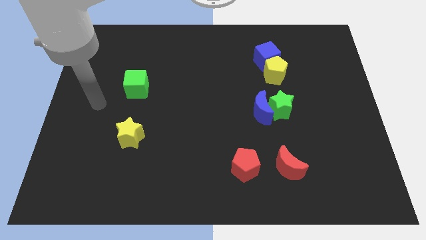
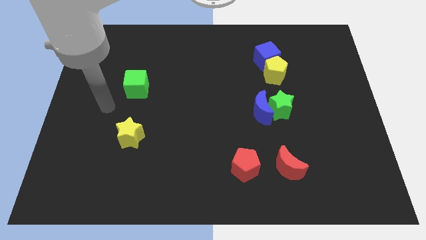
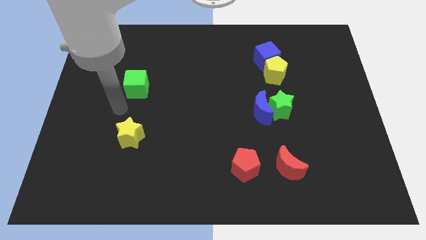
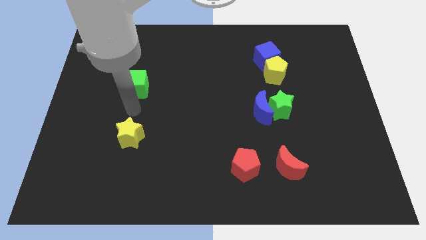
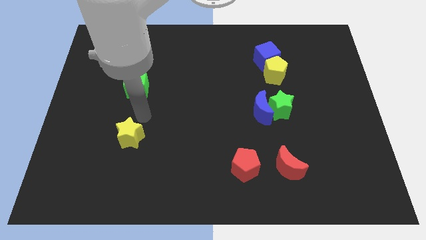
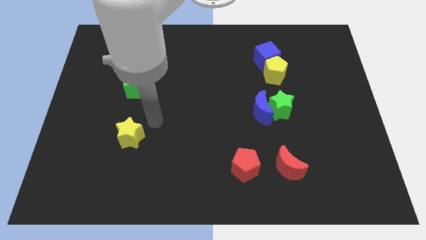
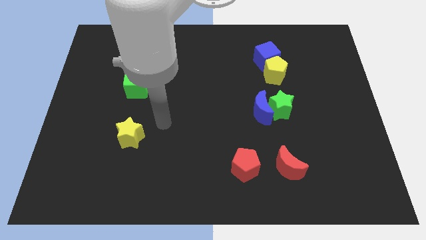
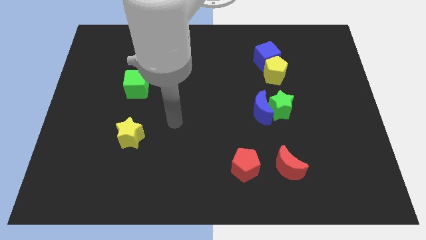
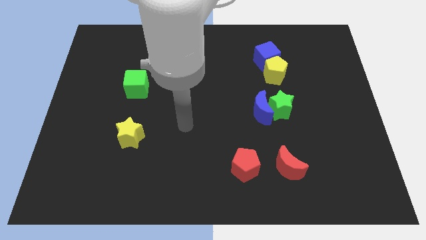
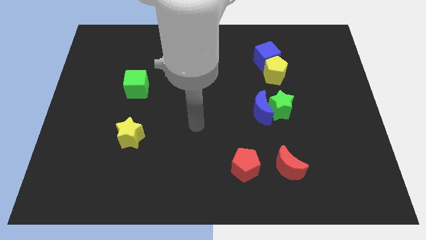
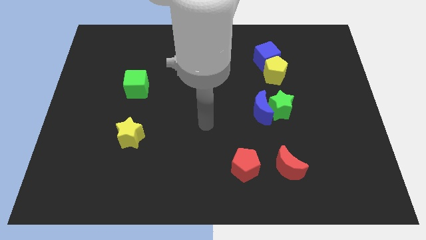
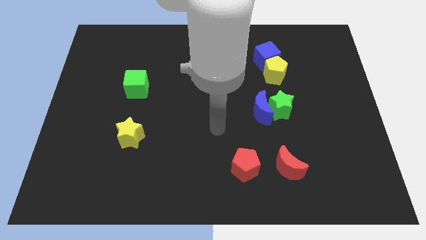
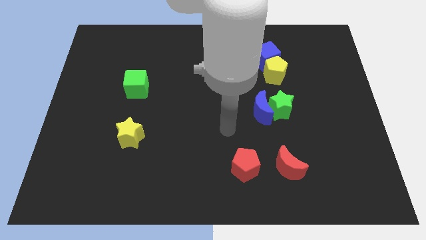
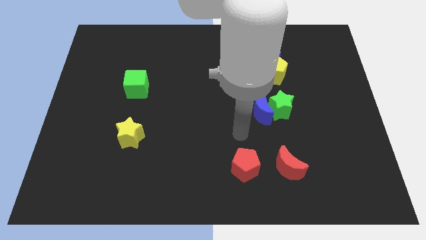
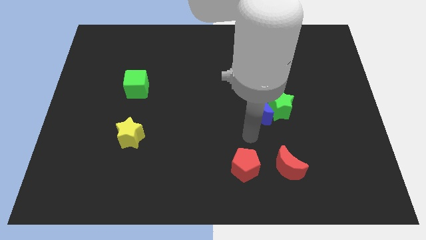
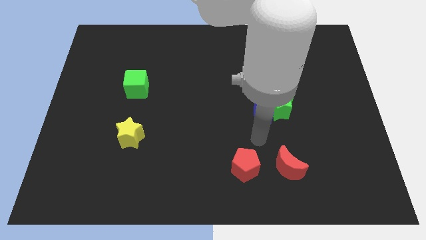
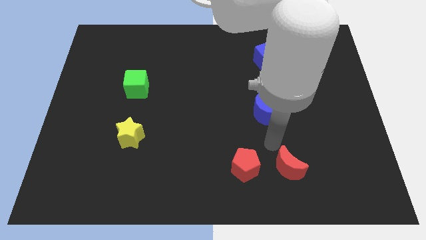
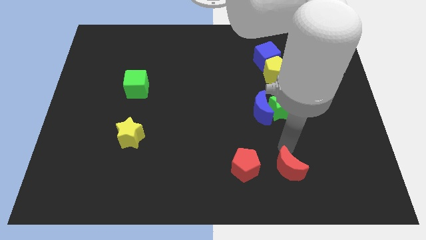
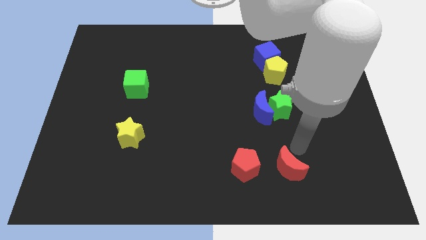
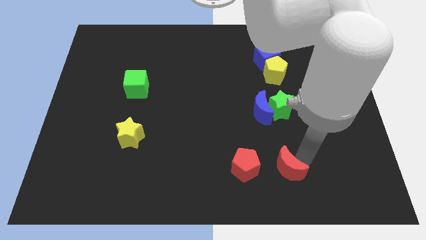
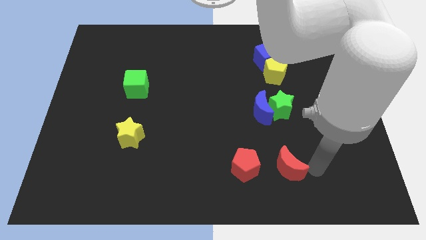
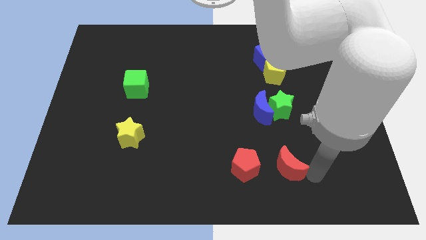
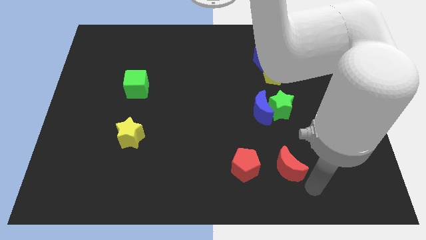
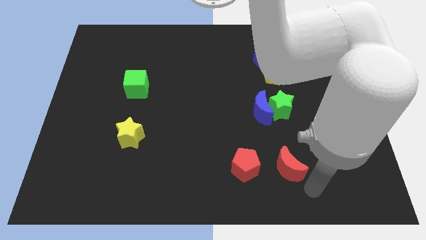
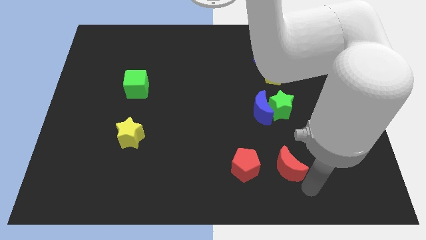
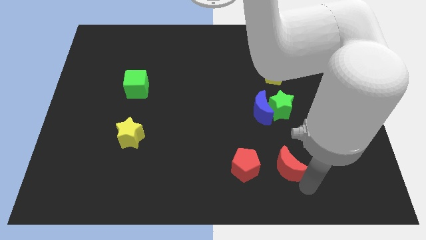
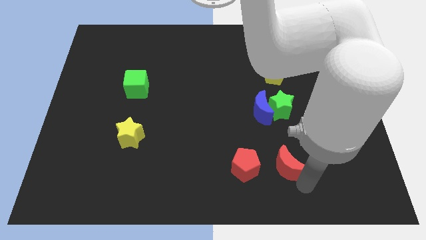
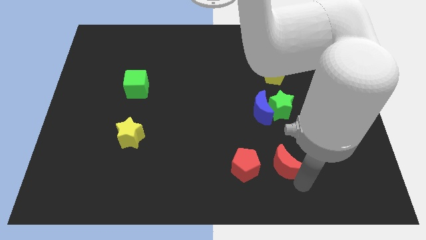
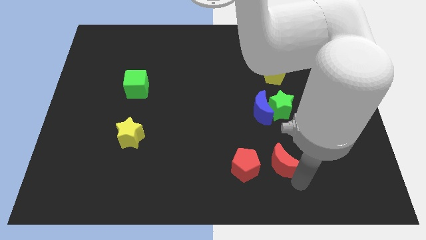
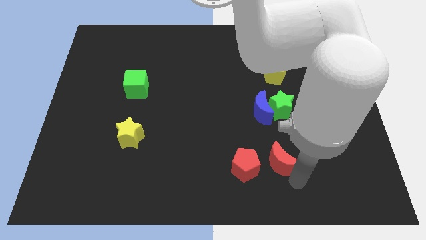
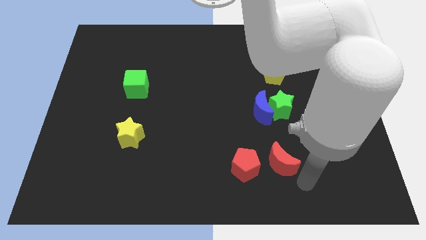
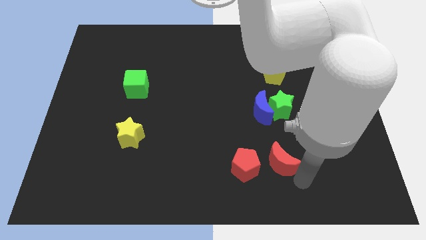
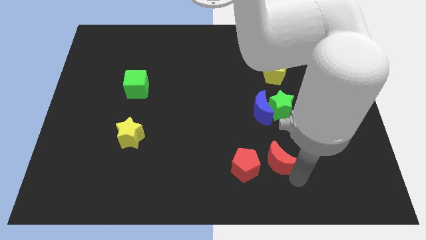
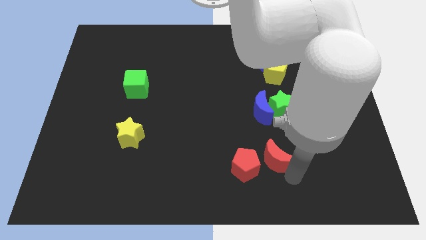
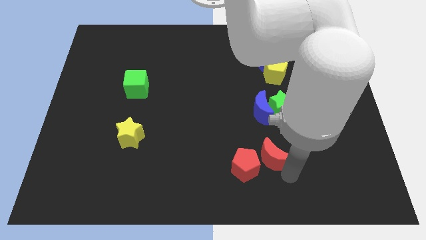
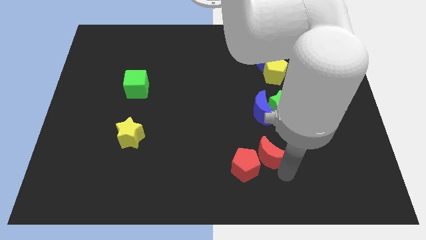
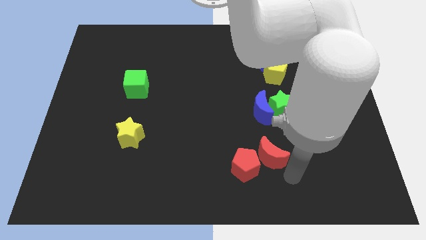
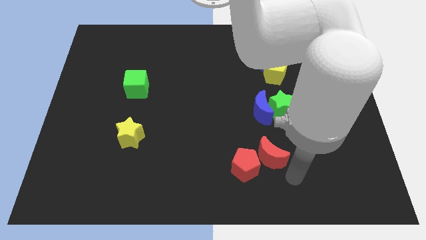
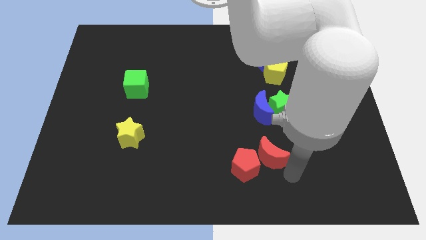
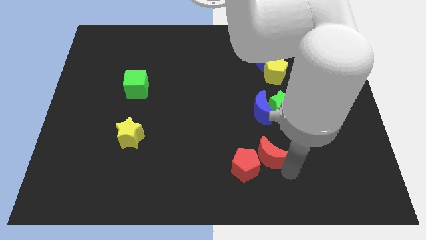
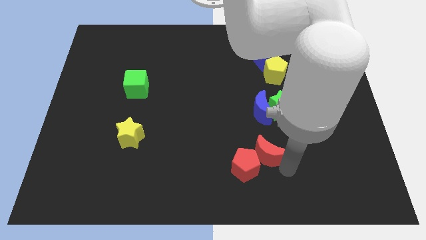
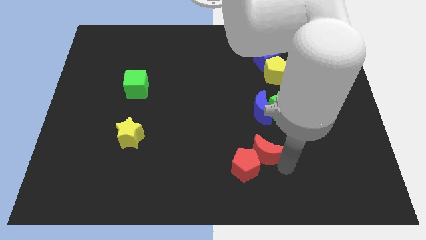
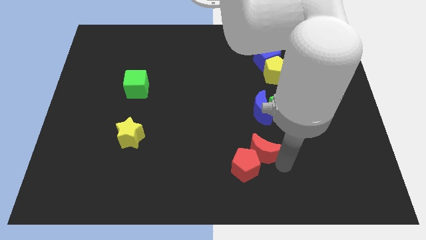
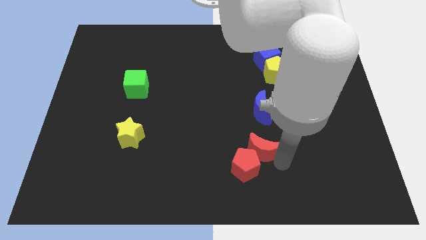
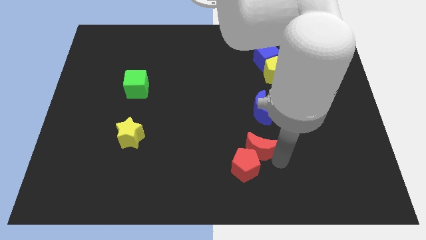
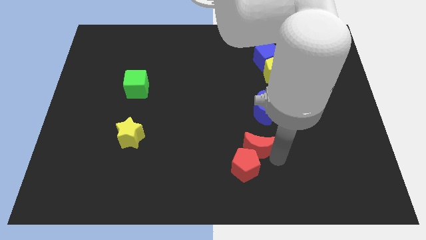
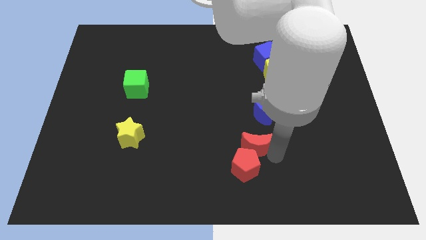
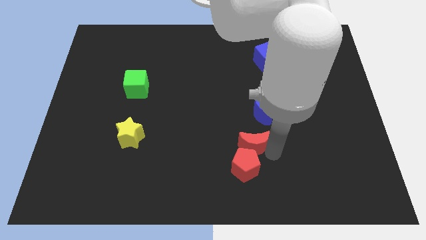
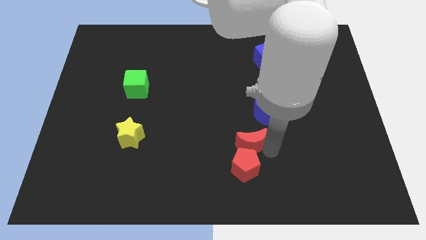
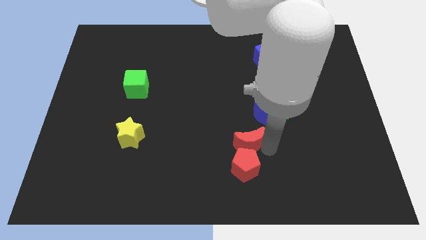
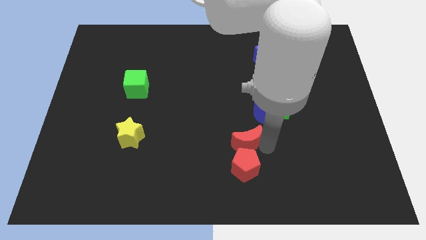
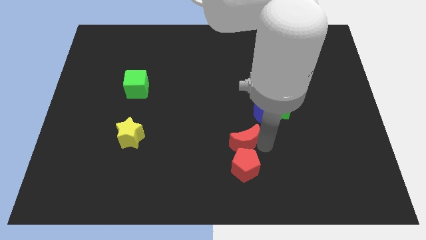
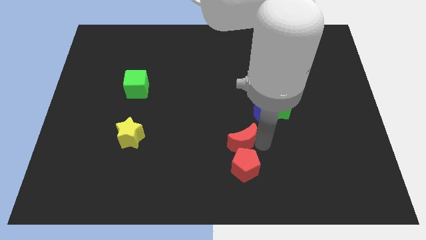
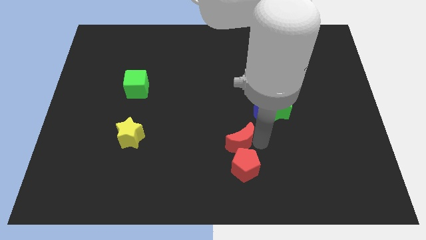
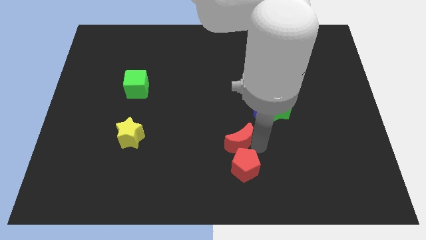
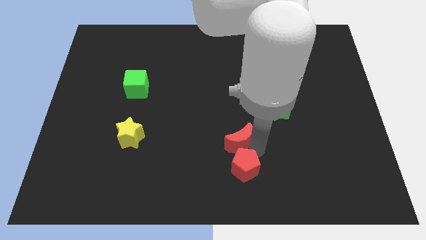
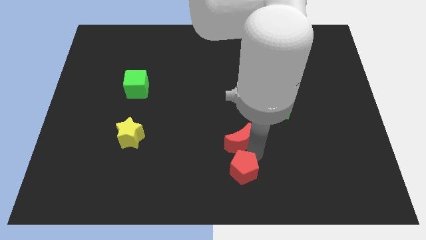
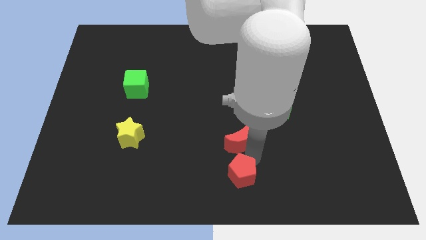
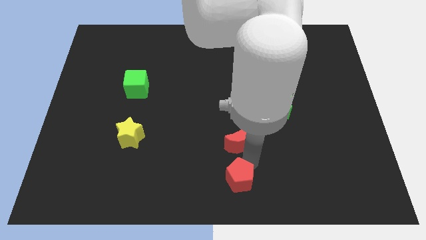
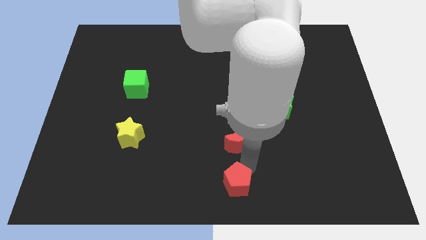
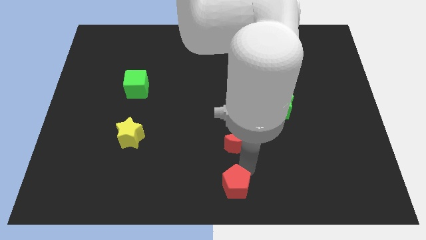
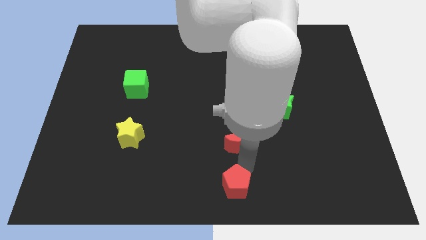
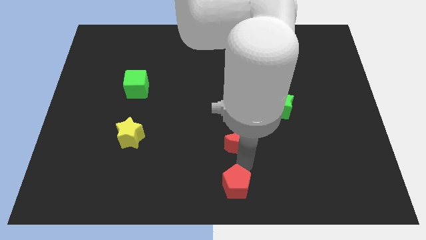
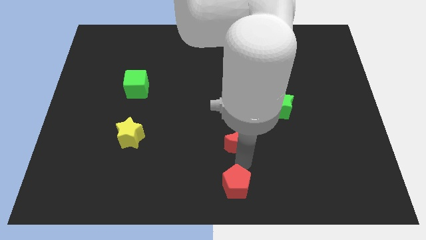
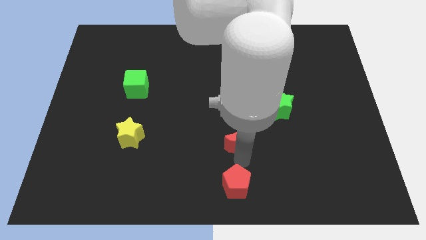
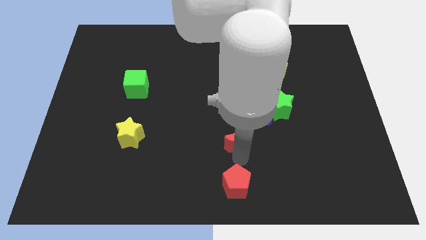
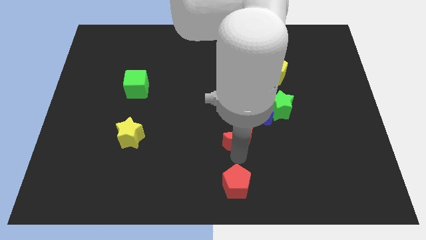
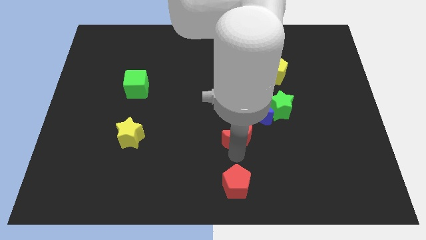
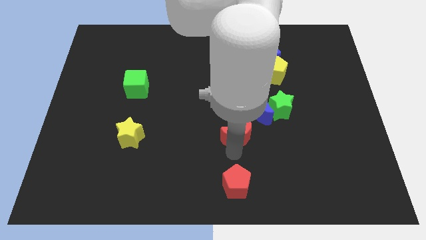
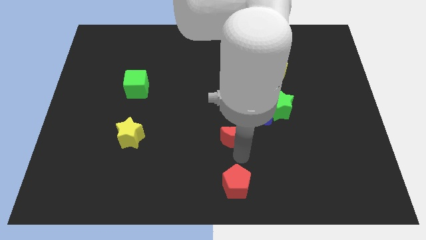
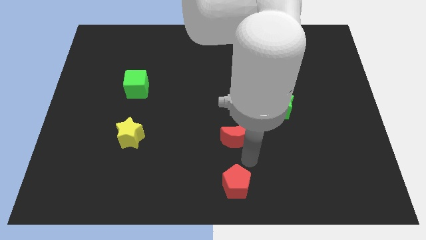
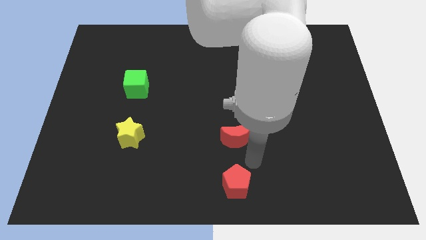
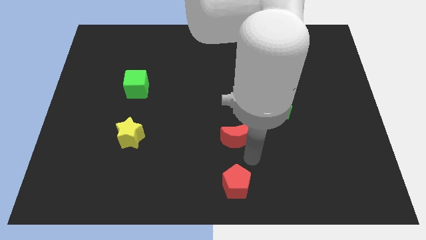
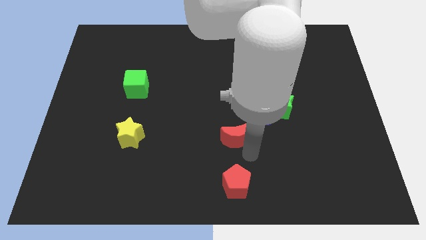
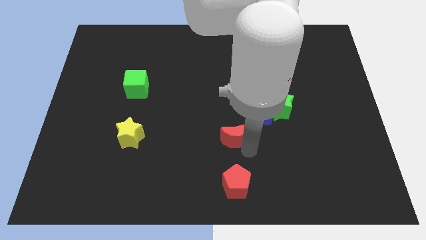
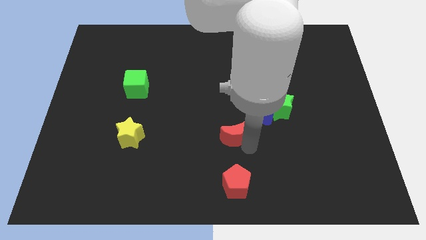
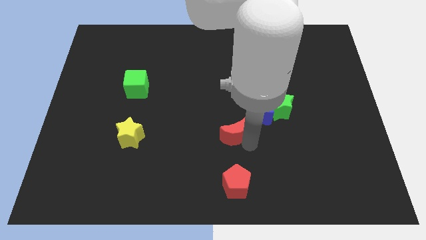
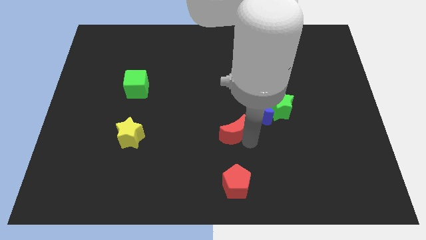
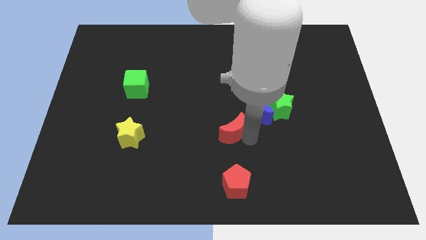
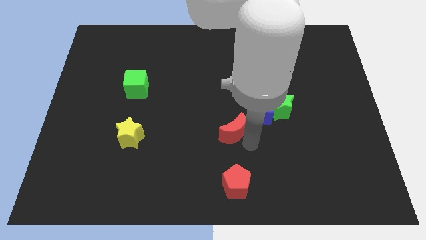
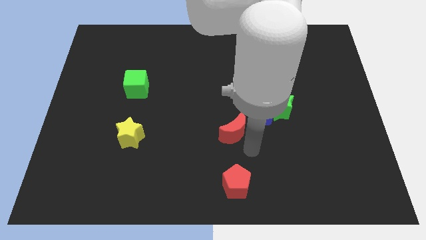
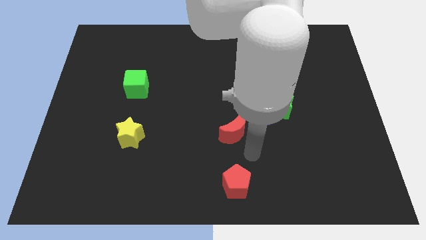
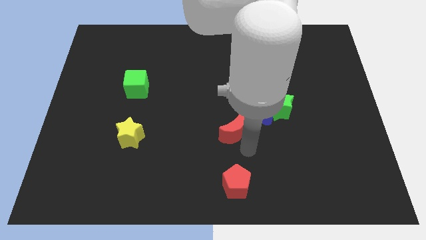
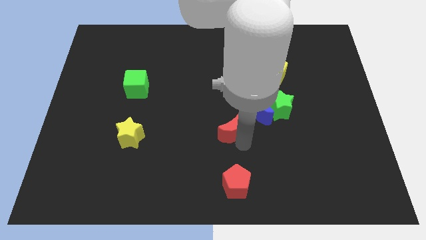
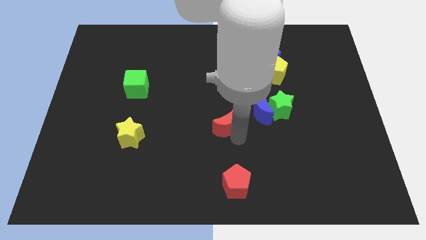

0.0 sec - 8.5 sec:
put the red moon to the left side of the blue moon
